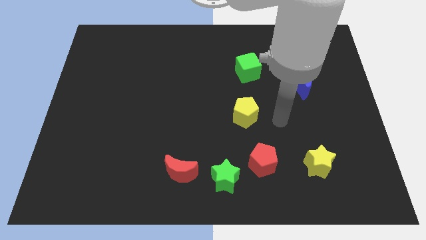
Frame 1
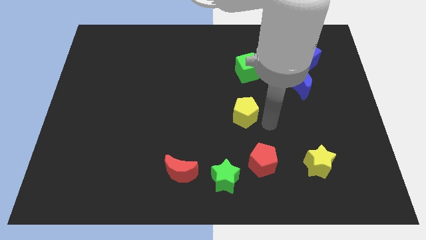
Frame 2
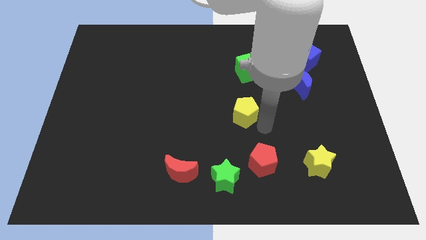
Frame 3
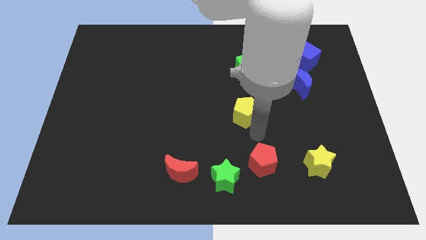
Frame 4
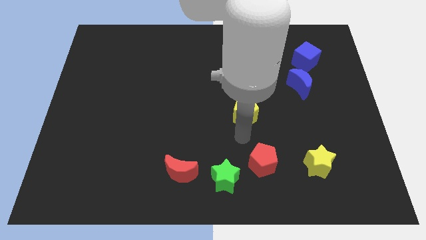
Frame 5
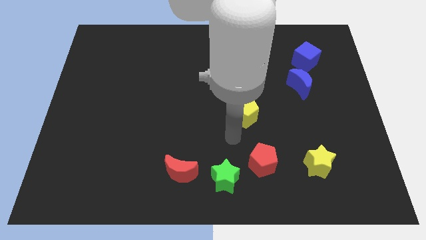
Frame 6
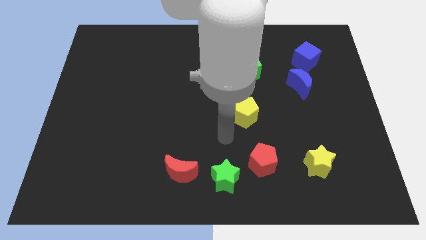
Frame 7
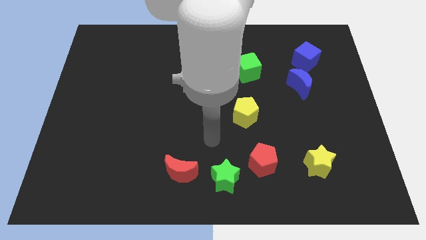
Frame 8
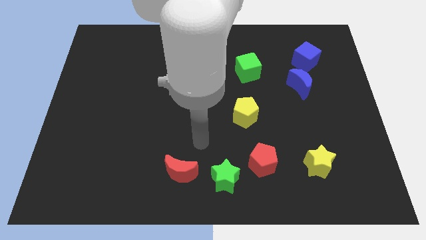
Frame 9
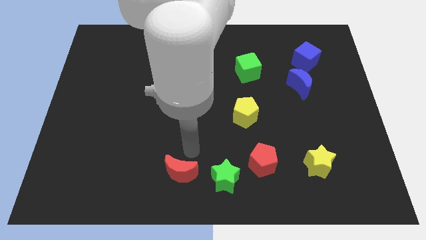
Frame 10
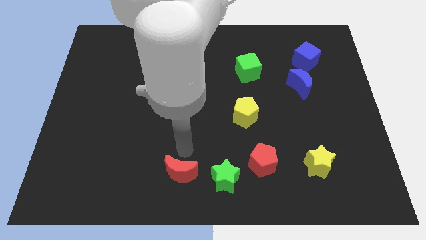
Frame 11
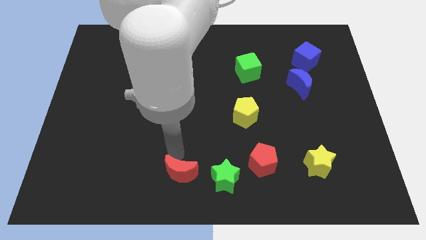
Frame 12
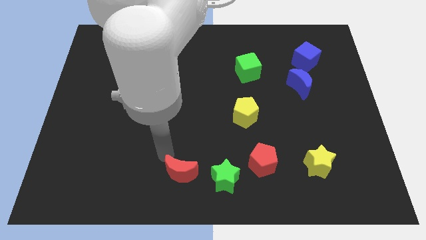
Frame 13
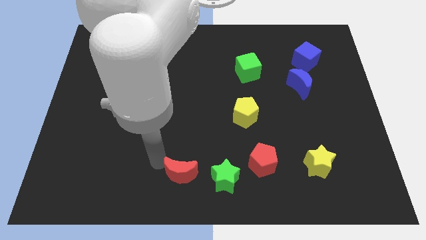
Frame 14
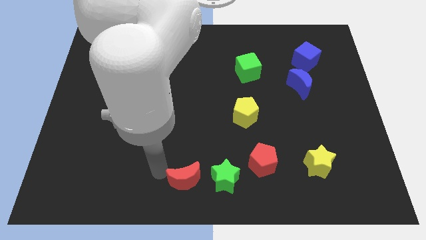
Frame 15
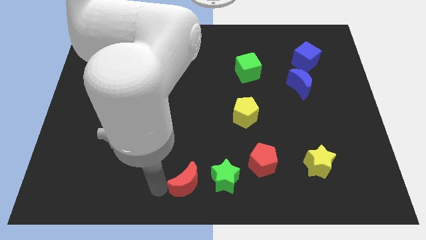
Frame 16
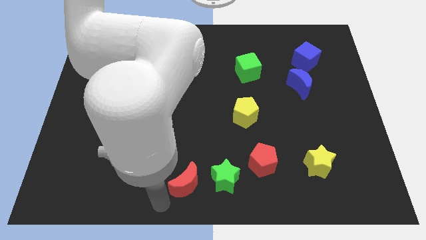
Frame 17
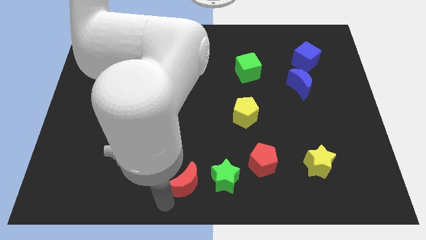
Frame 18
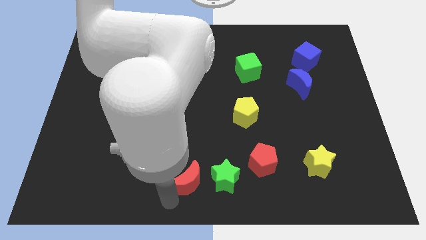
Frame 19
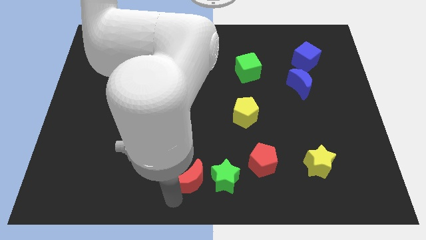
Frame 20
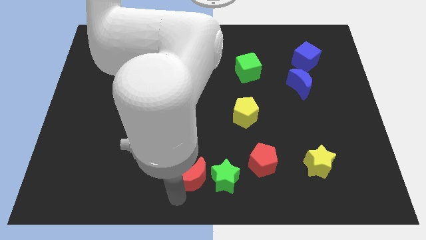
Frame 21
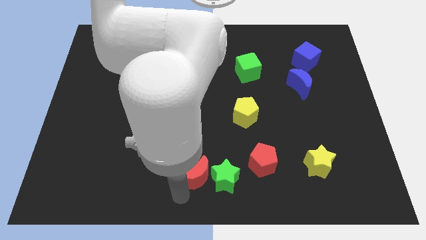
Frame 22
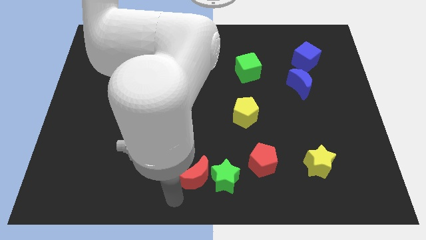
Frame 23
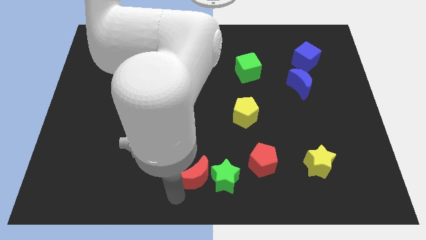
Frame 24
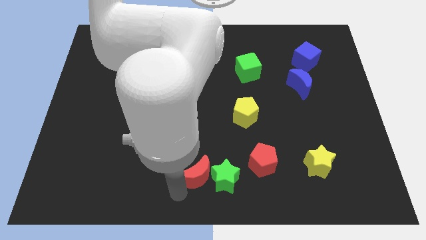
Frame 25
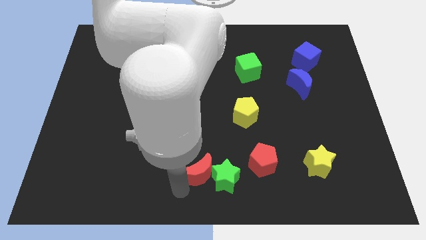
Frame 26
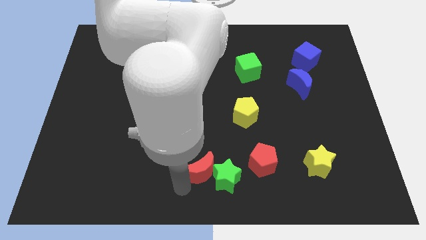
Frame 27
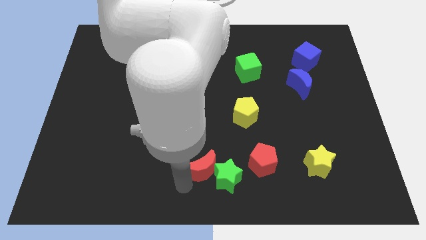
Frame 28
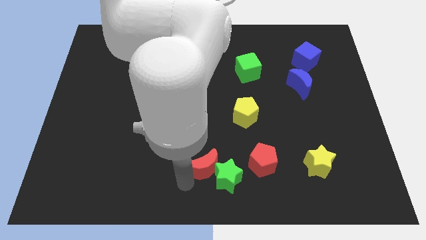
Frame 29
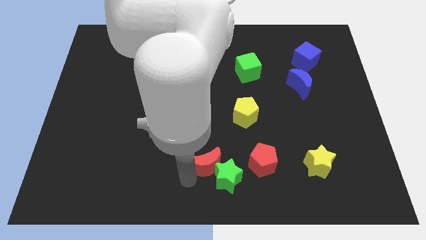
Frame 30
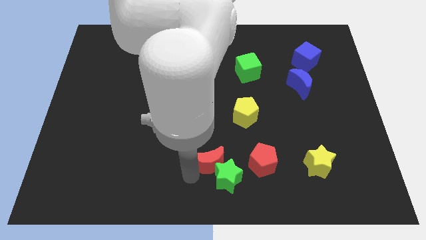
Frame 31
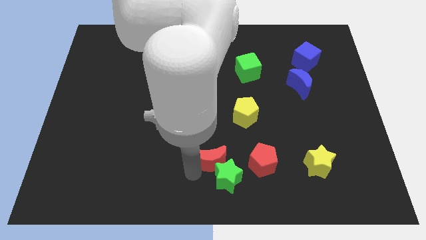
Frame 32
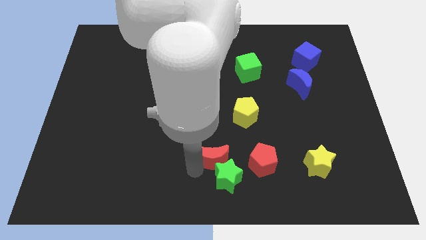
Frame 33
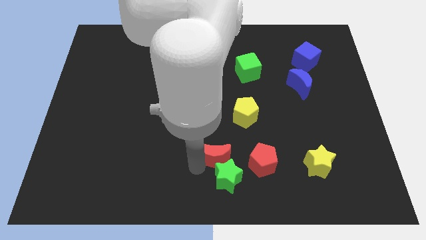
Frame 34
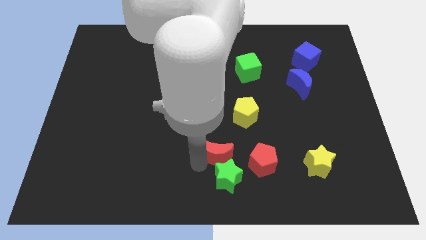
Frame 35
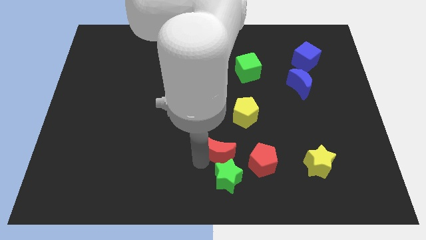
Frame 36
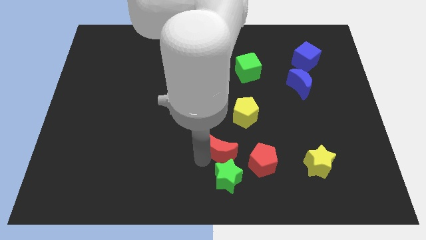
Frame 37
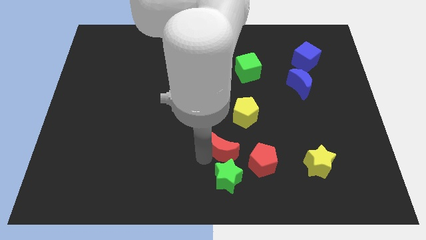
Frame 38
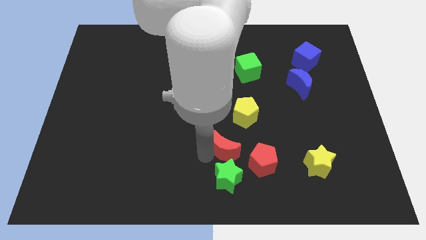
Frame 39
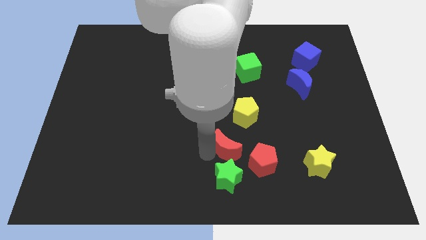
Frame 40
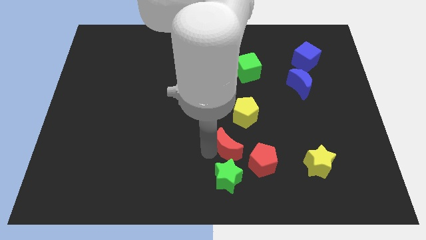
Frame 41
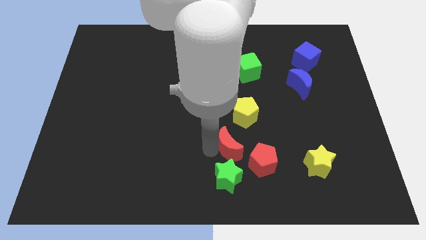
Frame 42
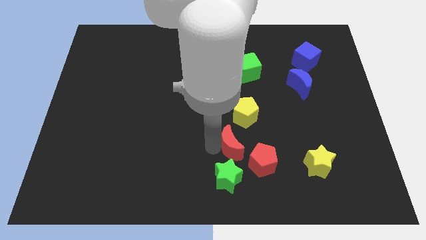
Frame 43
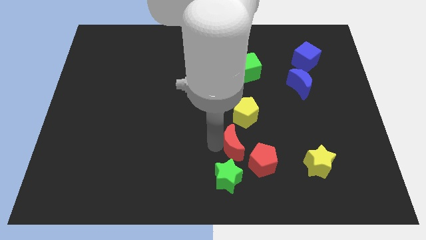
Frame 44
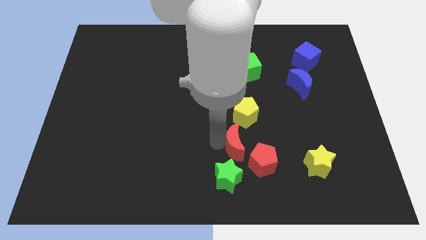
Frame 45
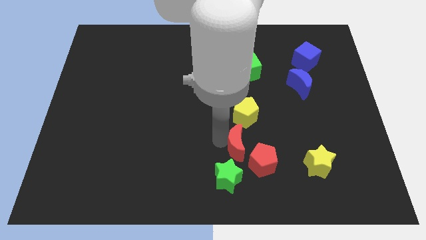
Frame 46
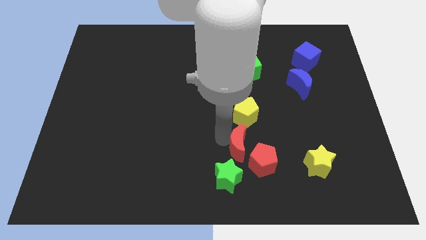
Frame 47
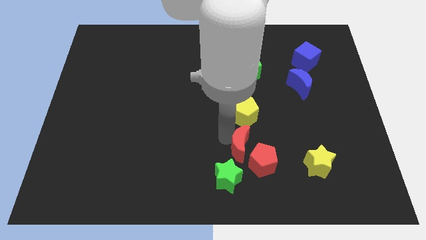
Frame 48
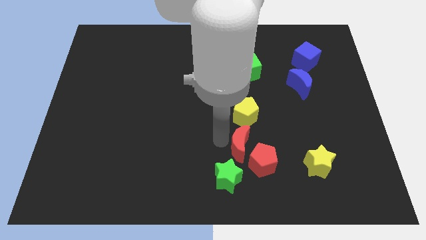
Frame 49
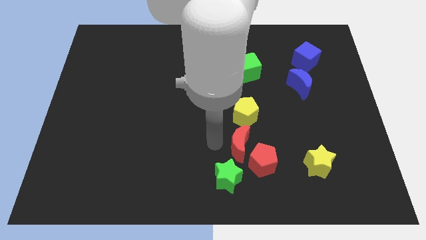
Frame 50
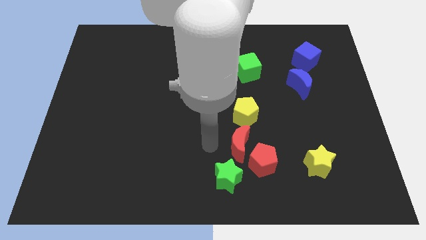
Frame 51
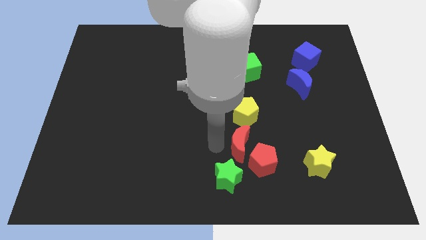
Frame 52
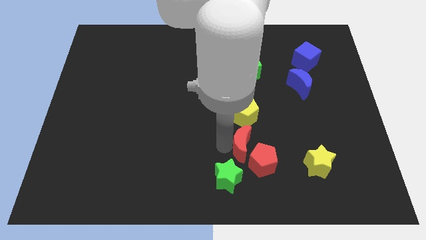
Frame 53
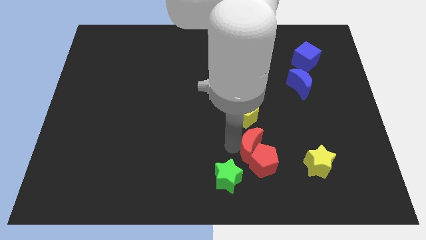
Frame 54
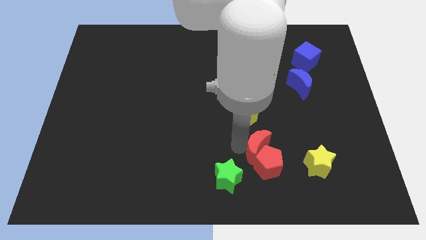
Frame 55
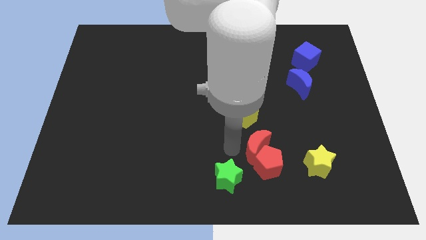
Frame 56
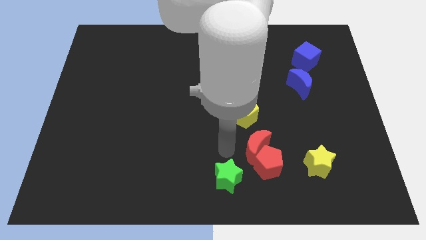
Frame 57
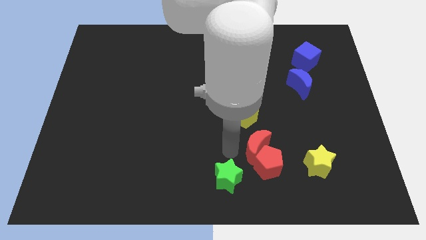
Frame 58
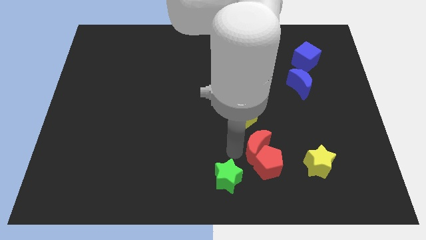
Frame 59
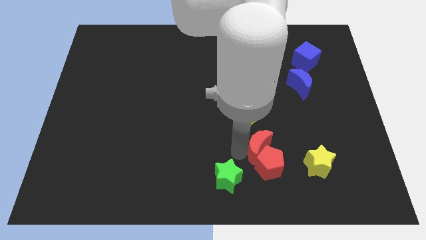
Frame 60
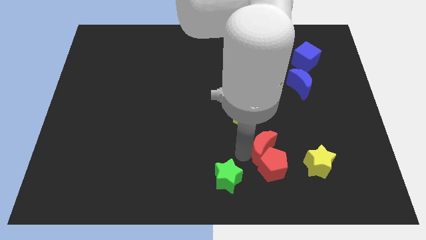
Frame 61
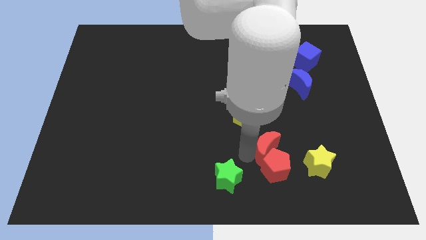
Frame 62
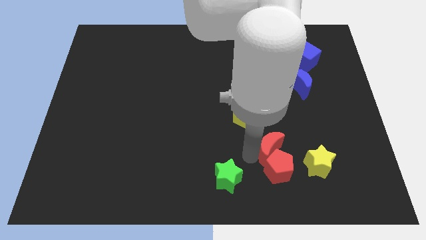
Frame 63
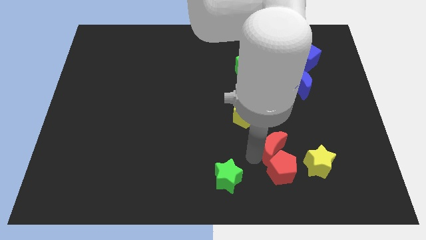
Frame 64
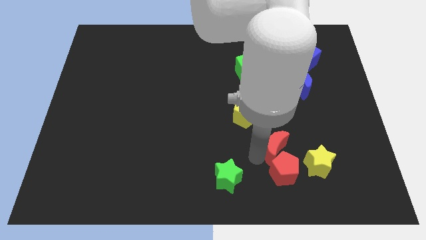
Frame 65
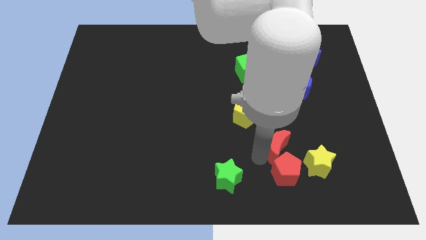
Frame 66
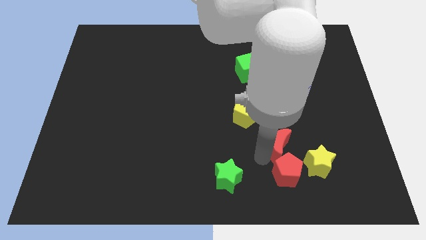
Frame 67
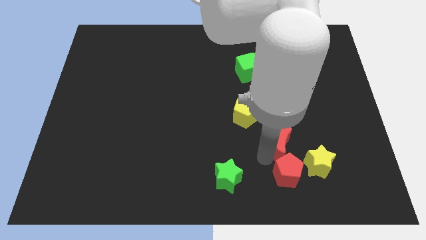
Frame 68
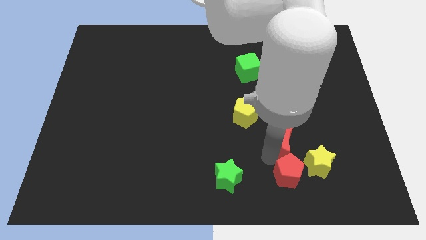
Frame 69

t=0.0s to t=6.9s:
push the red moon to the right

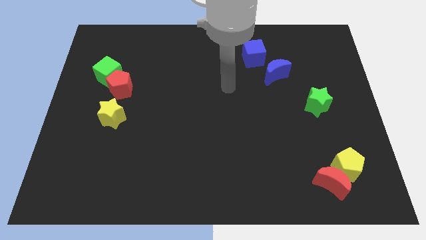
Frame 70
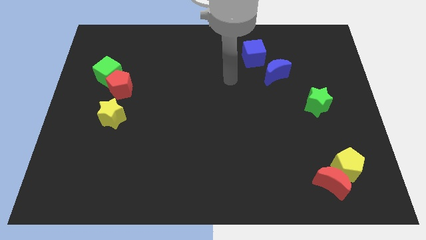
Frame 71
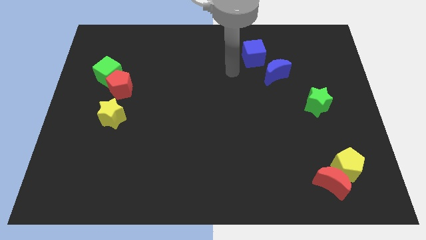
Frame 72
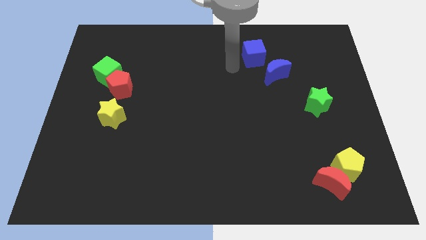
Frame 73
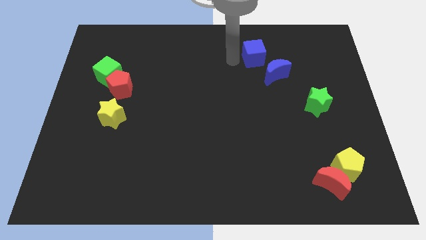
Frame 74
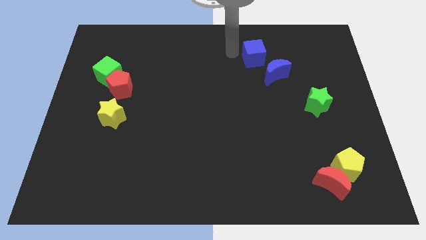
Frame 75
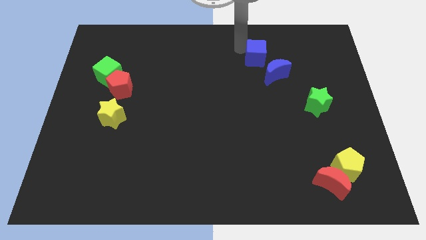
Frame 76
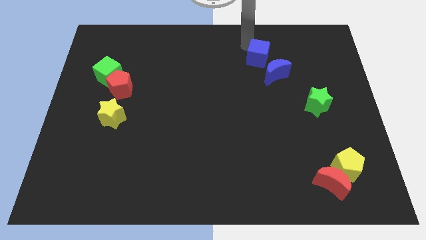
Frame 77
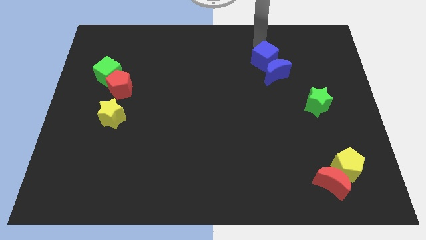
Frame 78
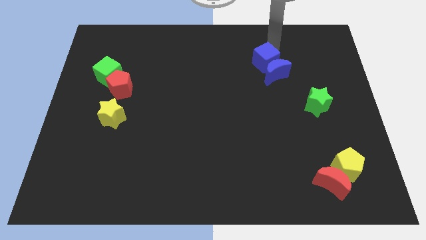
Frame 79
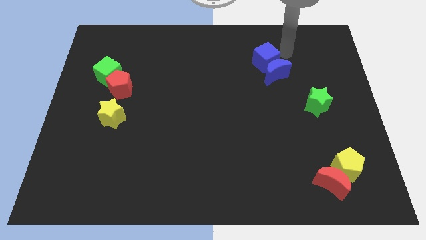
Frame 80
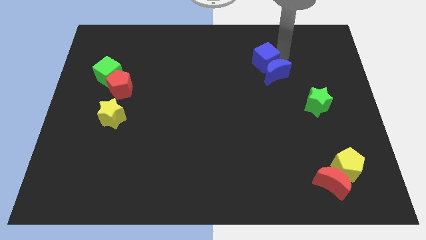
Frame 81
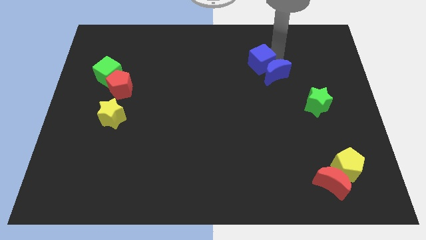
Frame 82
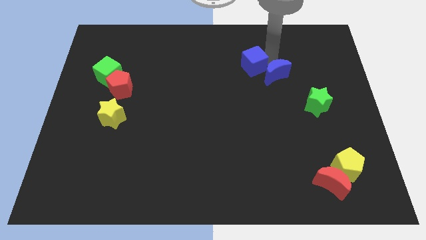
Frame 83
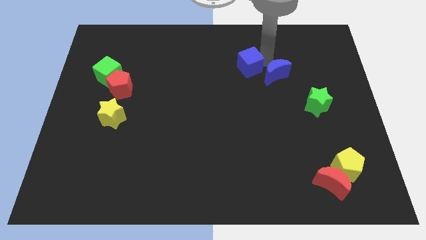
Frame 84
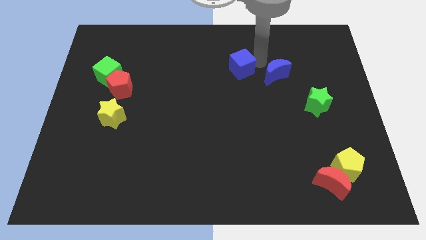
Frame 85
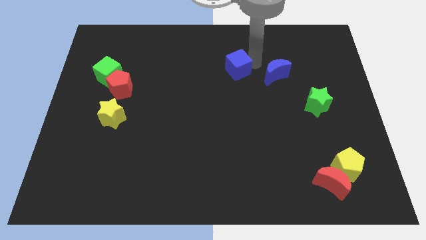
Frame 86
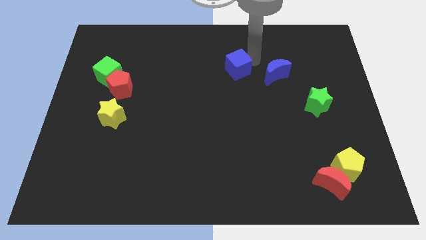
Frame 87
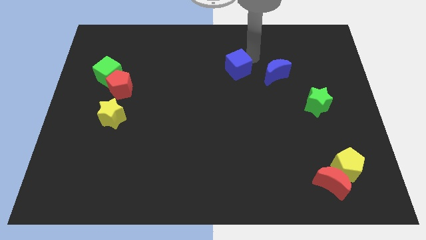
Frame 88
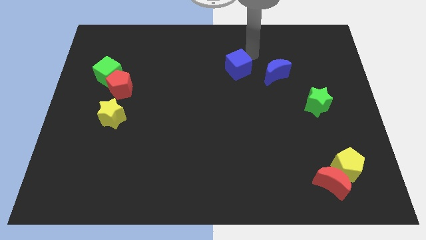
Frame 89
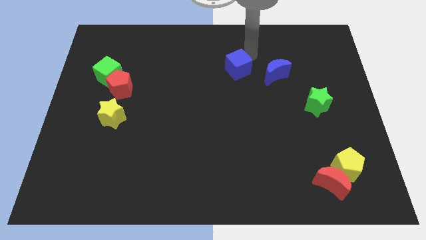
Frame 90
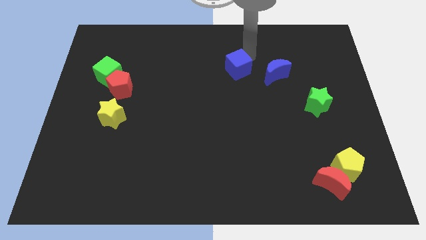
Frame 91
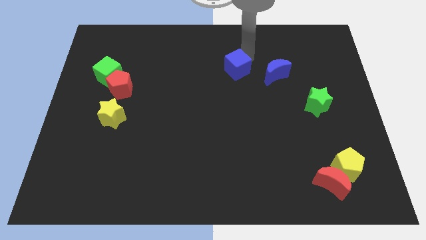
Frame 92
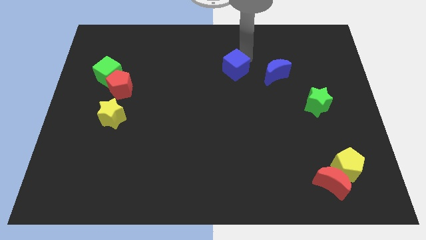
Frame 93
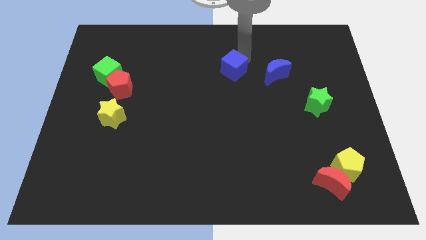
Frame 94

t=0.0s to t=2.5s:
push the blue cube a little downwards and then to the left
